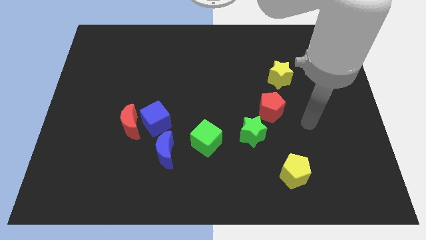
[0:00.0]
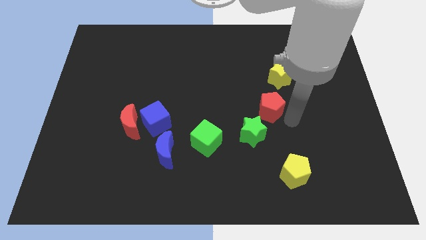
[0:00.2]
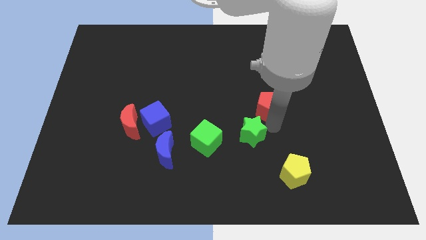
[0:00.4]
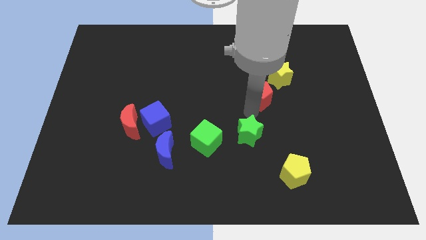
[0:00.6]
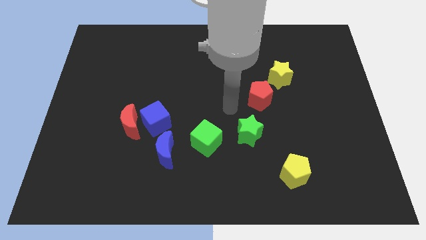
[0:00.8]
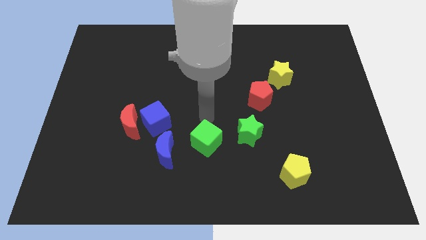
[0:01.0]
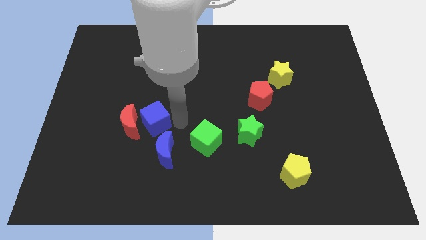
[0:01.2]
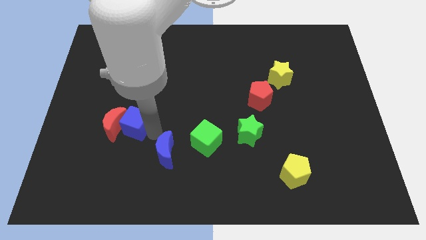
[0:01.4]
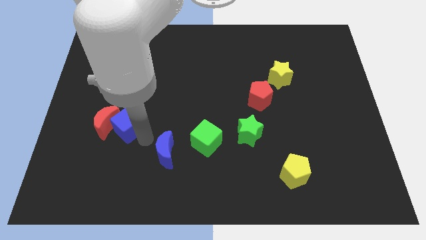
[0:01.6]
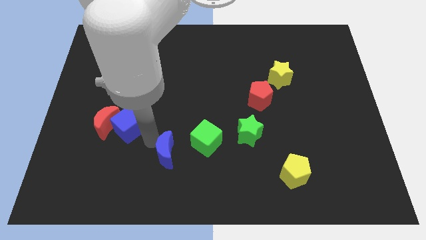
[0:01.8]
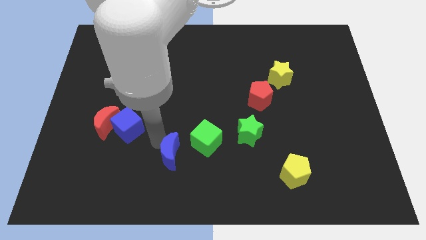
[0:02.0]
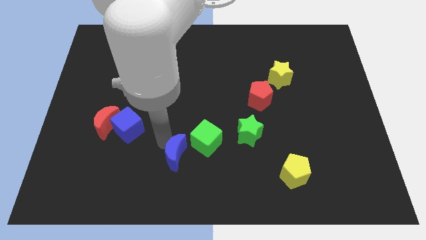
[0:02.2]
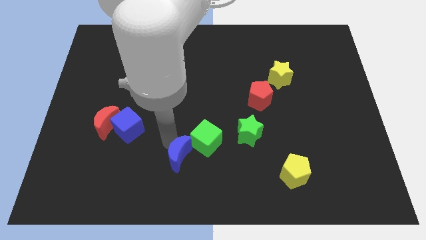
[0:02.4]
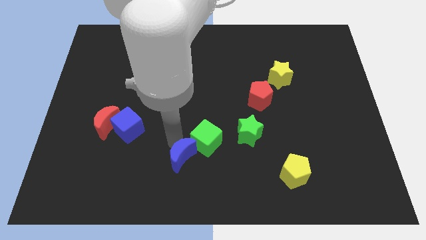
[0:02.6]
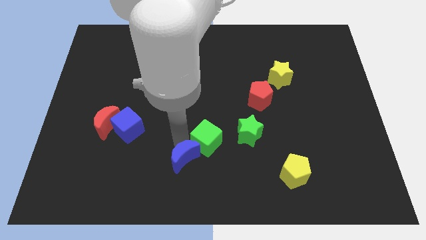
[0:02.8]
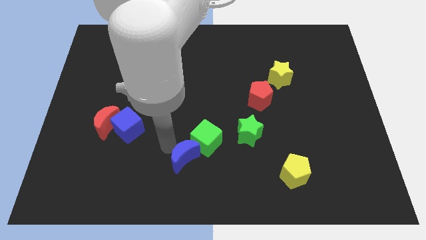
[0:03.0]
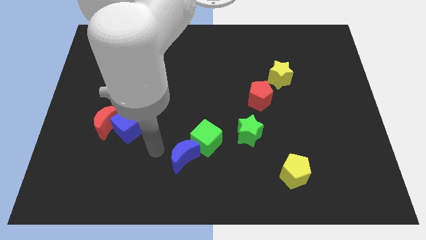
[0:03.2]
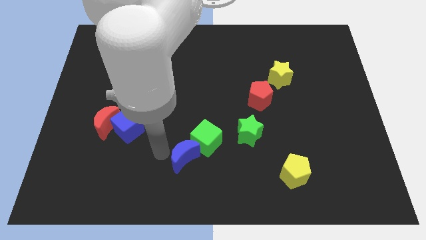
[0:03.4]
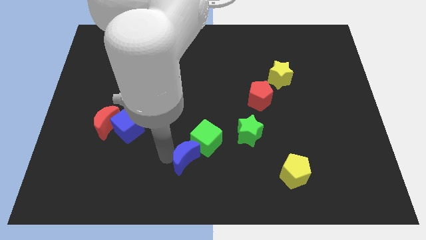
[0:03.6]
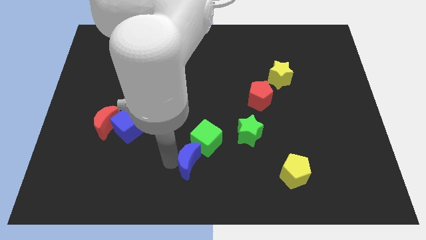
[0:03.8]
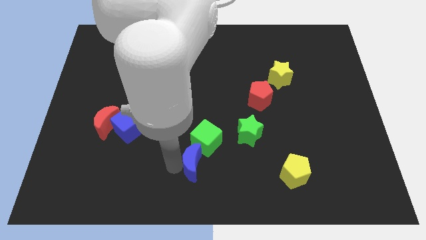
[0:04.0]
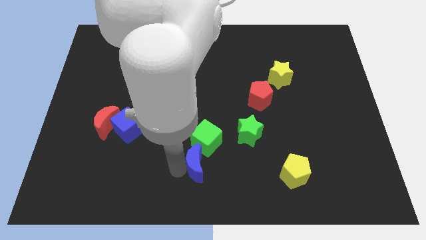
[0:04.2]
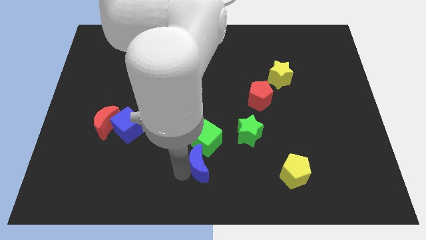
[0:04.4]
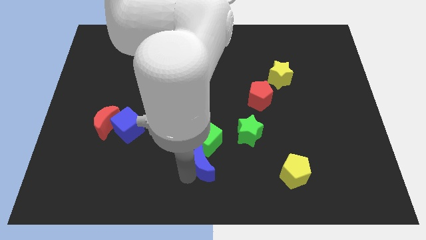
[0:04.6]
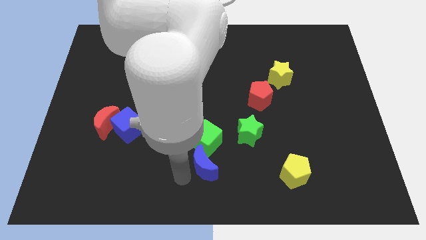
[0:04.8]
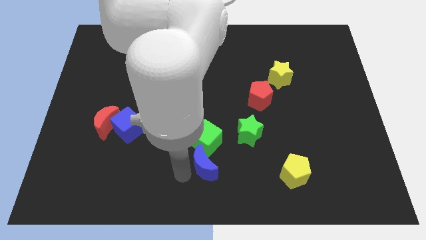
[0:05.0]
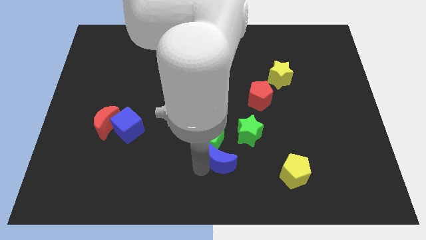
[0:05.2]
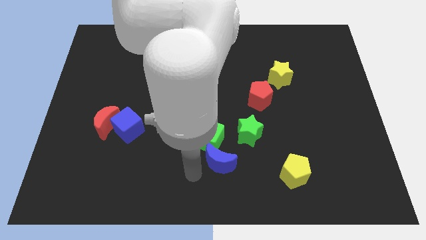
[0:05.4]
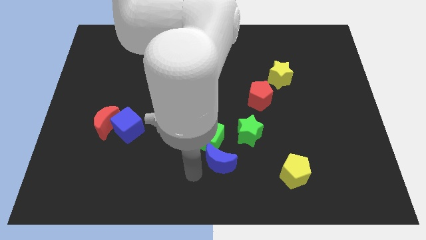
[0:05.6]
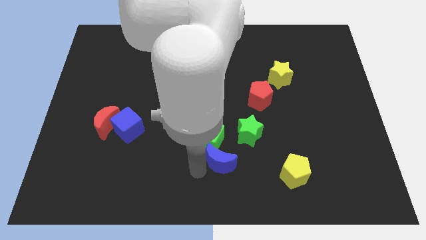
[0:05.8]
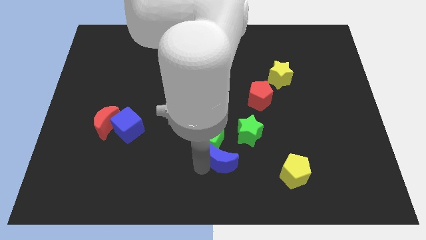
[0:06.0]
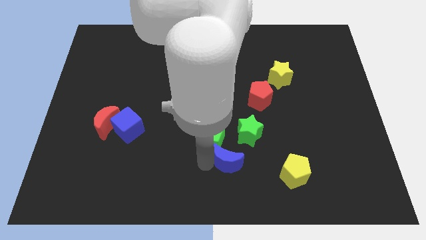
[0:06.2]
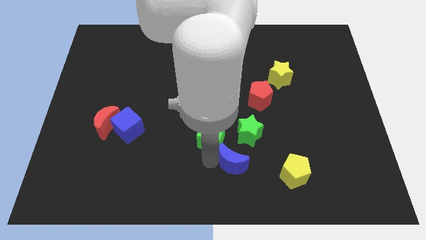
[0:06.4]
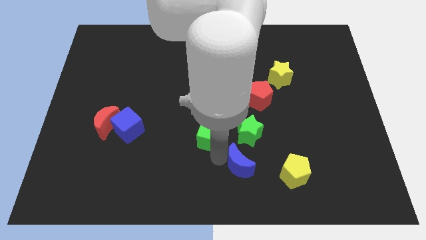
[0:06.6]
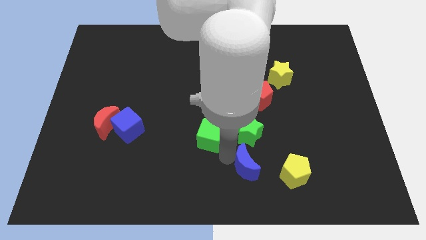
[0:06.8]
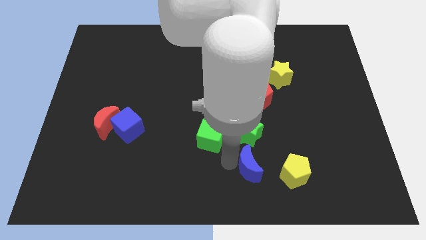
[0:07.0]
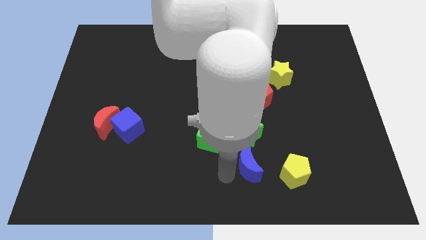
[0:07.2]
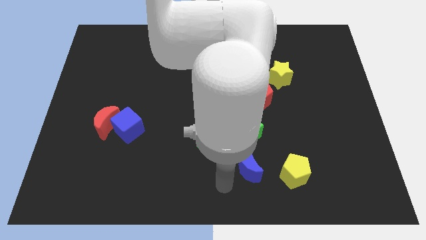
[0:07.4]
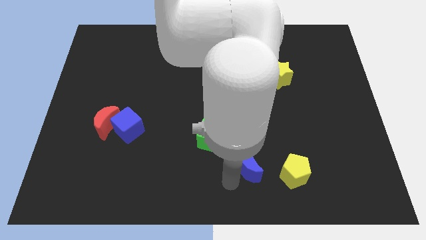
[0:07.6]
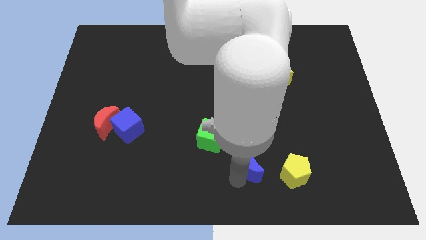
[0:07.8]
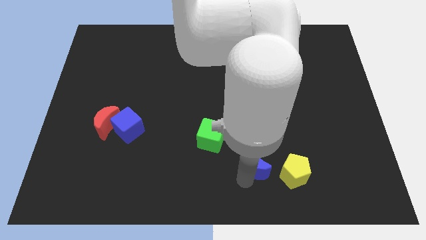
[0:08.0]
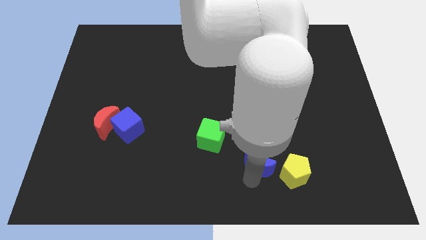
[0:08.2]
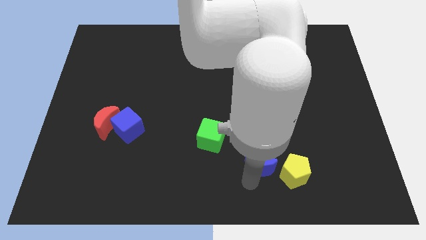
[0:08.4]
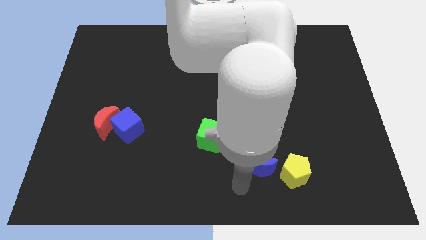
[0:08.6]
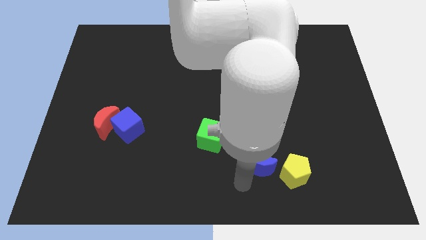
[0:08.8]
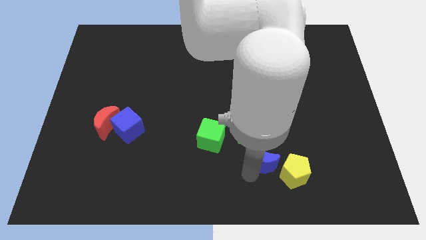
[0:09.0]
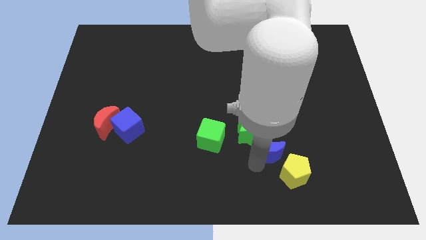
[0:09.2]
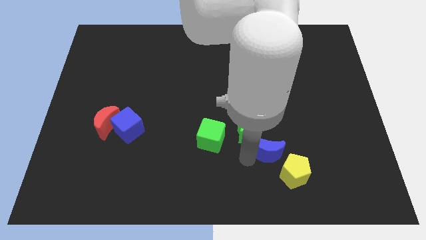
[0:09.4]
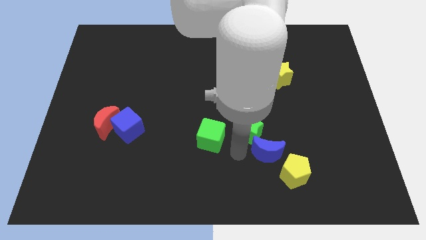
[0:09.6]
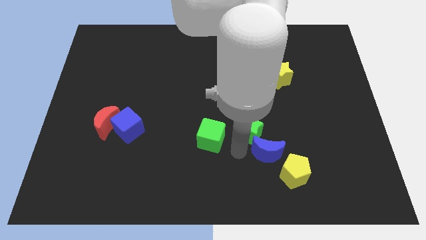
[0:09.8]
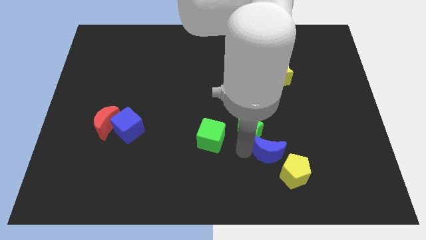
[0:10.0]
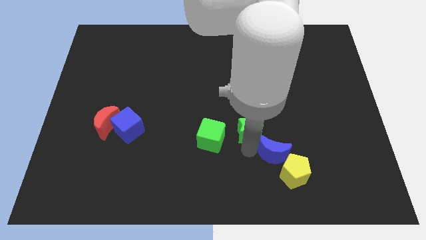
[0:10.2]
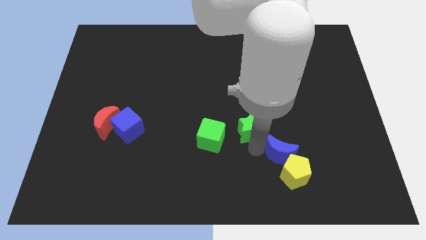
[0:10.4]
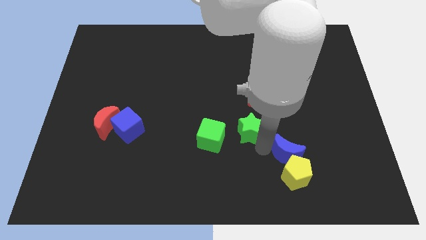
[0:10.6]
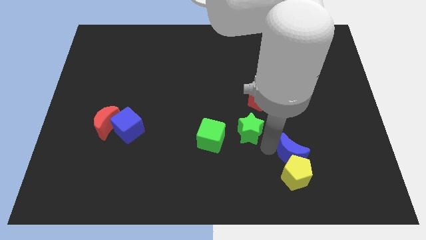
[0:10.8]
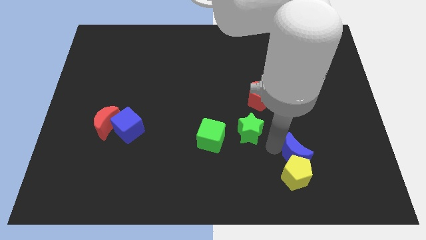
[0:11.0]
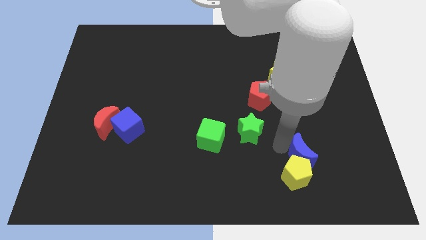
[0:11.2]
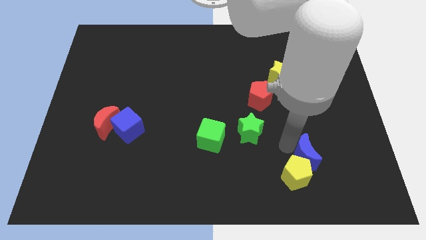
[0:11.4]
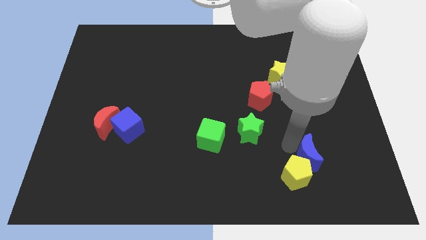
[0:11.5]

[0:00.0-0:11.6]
put the blue moon right of the yellow pentagon
